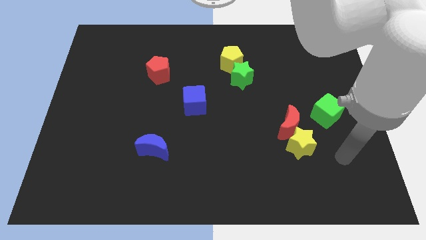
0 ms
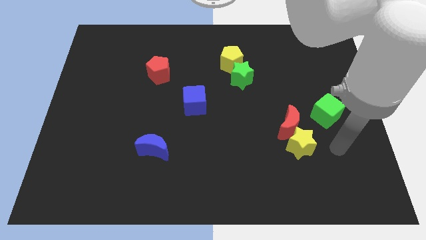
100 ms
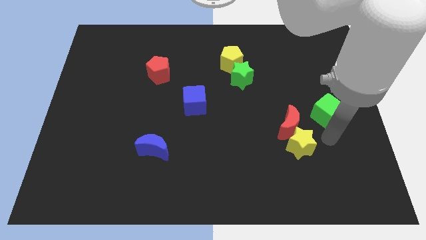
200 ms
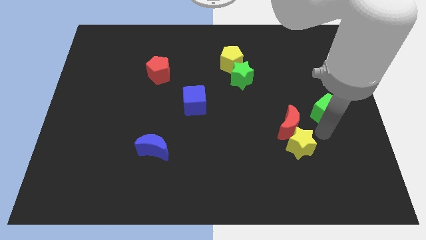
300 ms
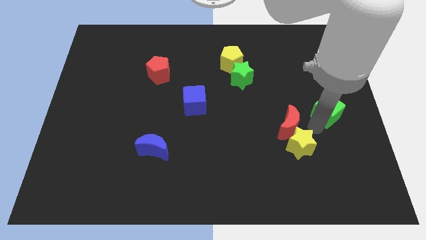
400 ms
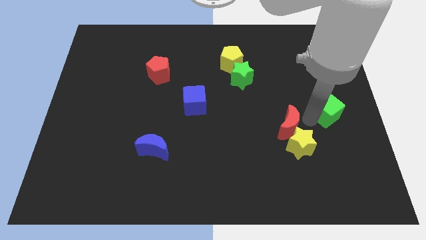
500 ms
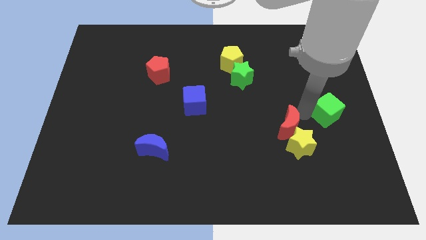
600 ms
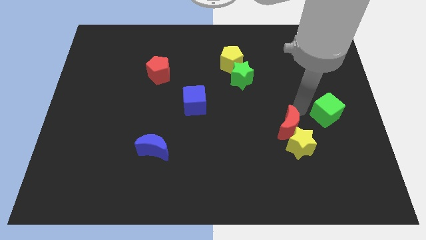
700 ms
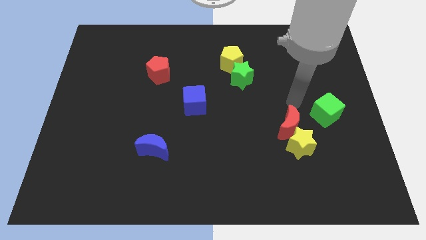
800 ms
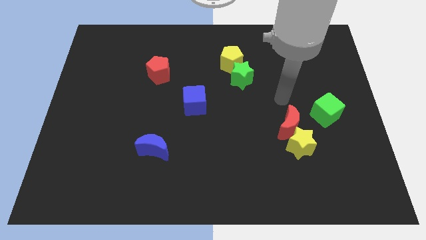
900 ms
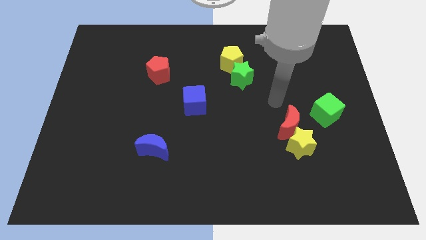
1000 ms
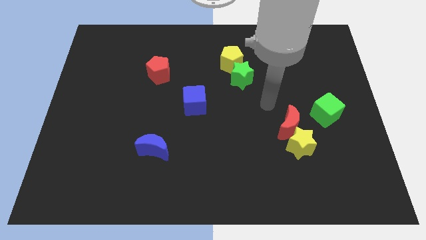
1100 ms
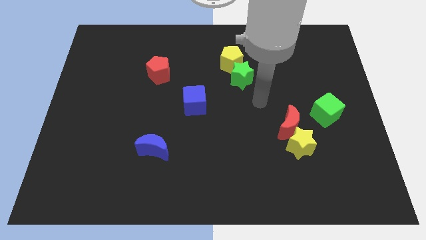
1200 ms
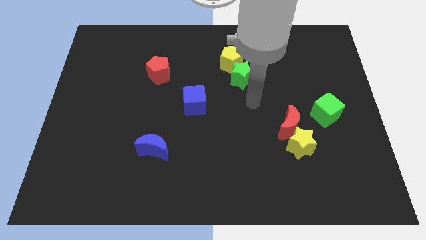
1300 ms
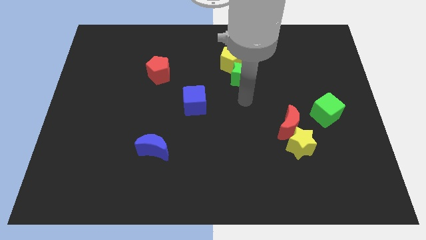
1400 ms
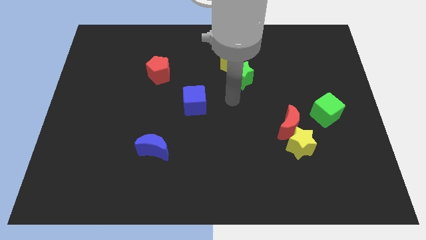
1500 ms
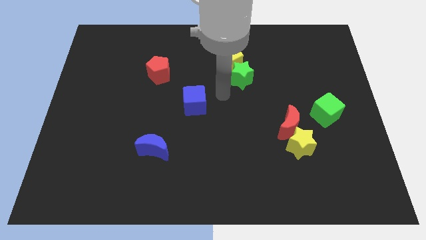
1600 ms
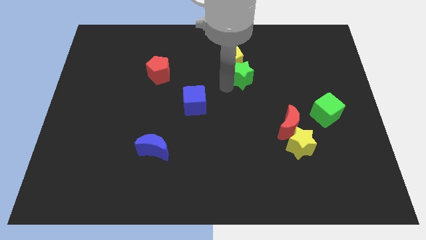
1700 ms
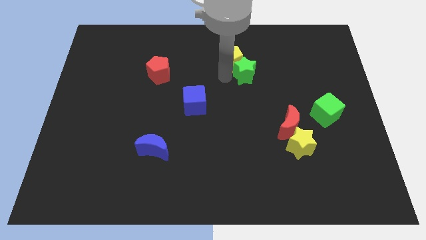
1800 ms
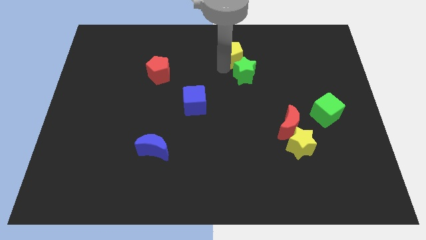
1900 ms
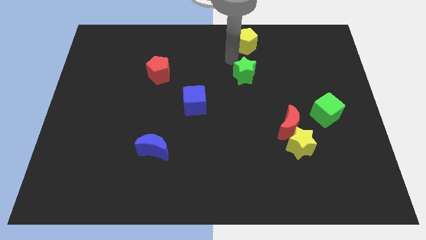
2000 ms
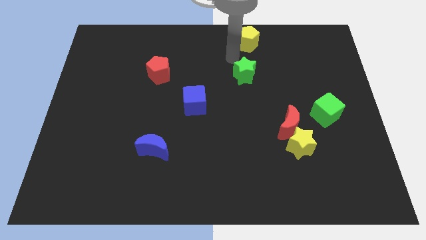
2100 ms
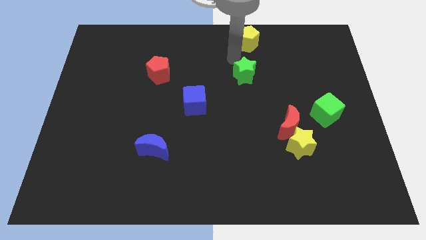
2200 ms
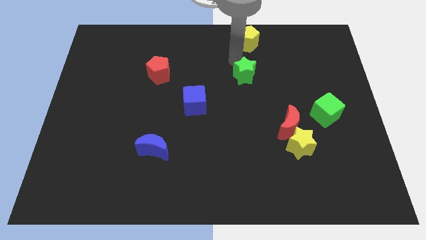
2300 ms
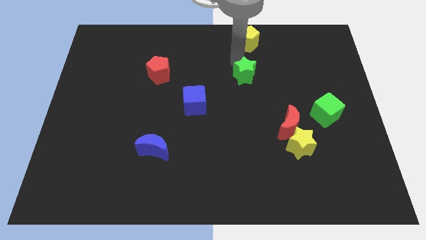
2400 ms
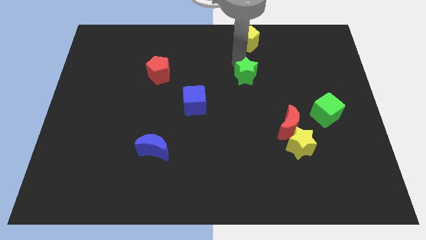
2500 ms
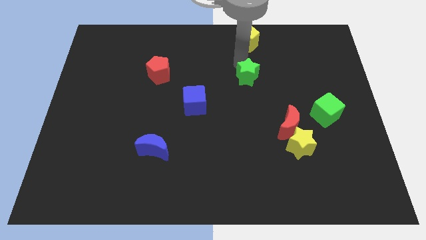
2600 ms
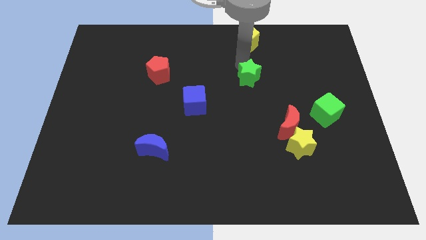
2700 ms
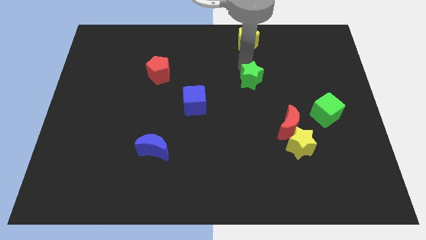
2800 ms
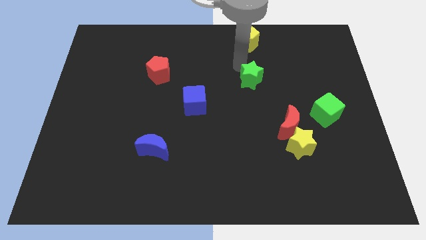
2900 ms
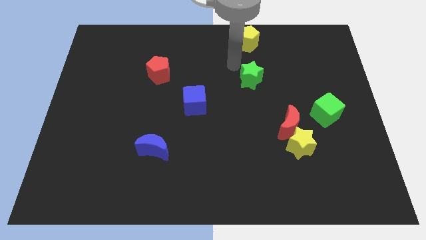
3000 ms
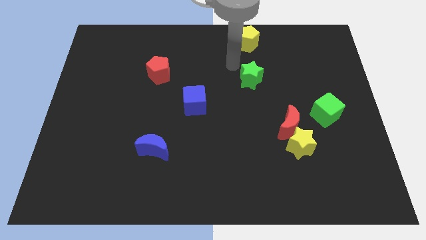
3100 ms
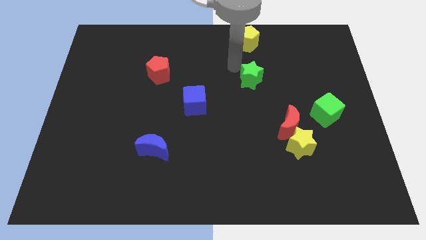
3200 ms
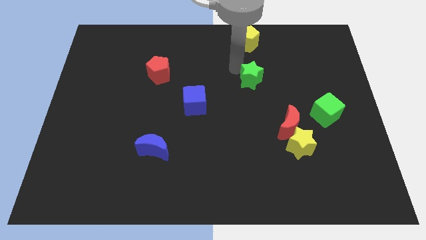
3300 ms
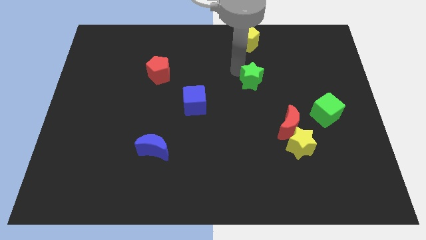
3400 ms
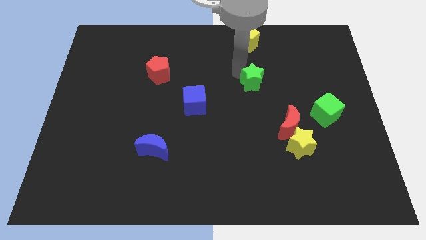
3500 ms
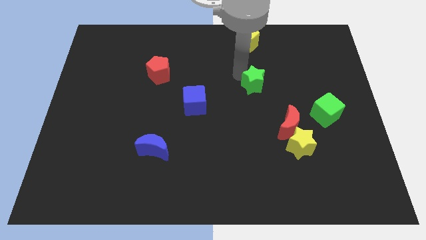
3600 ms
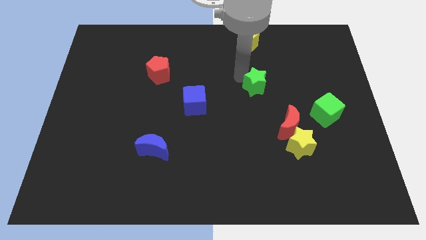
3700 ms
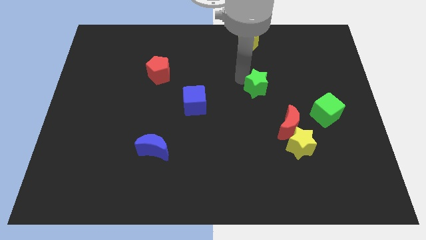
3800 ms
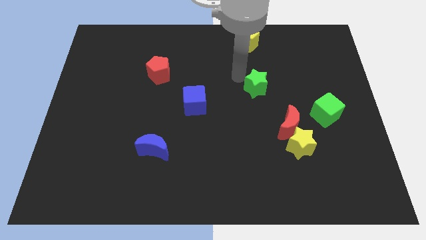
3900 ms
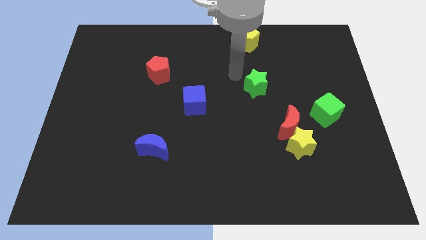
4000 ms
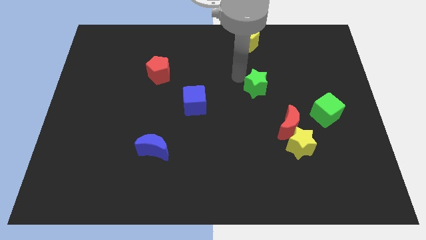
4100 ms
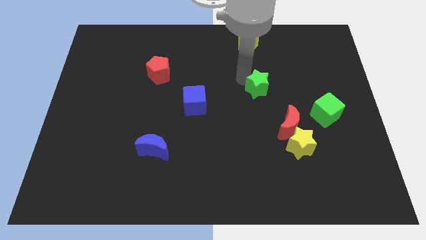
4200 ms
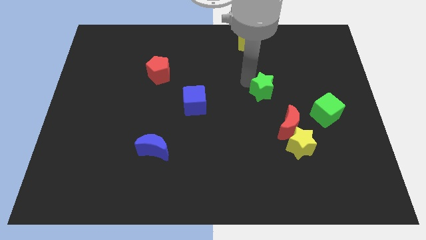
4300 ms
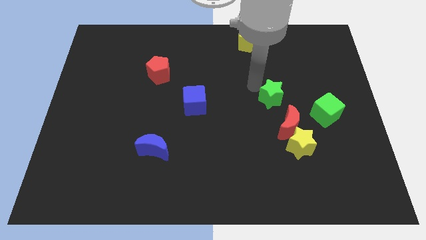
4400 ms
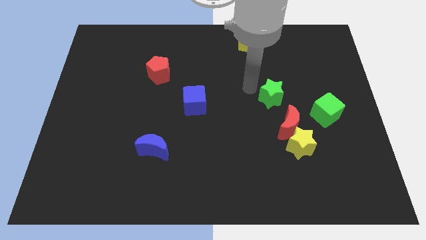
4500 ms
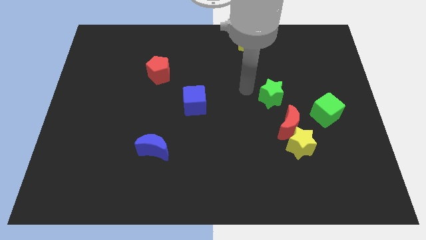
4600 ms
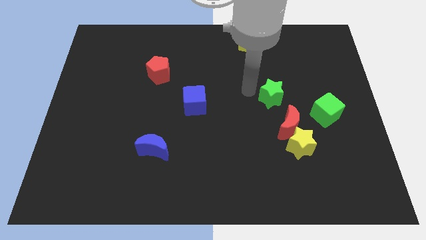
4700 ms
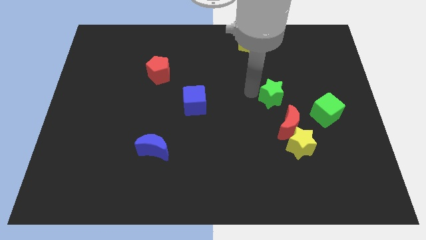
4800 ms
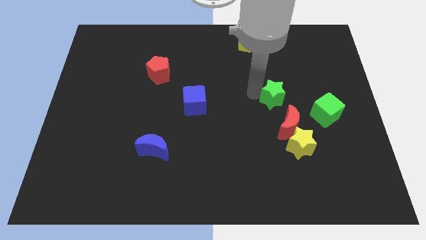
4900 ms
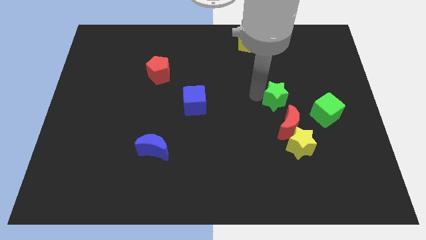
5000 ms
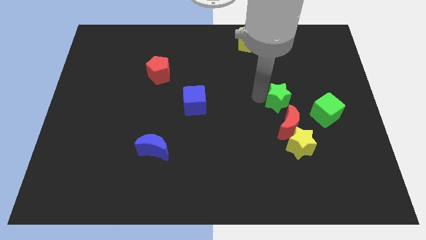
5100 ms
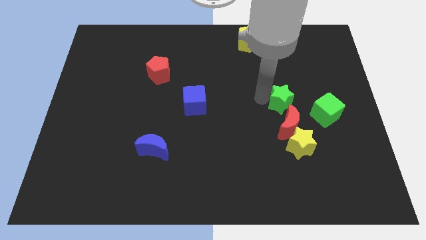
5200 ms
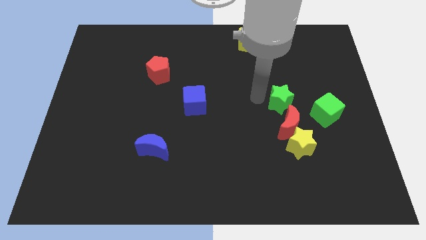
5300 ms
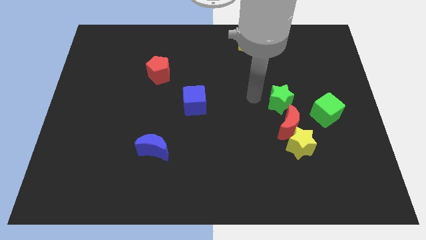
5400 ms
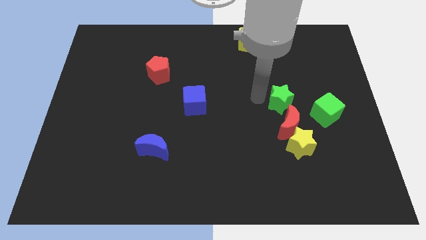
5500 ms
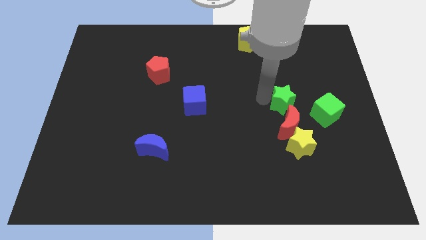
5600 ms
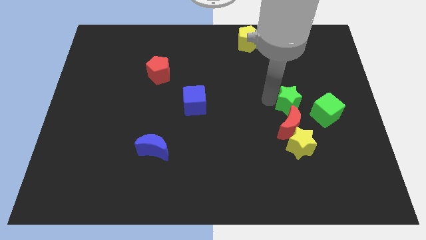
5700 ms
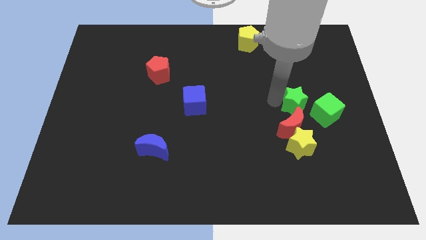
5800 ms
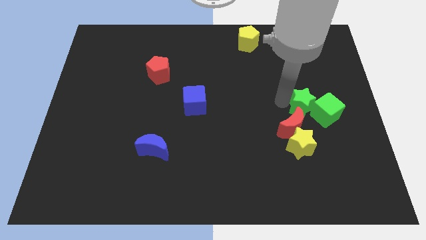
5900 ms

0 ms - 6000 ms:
push the green star close to the green cube

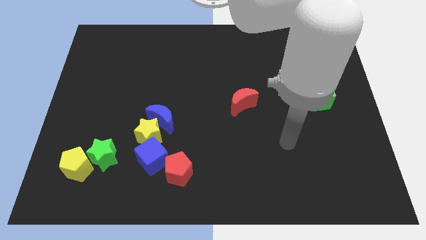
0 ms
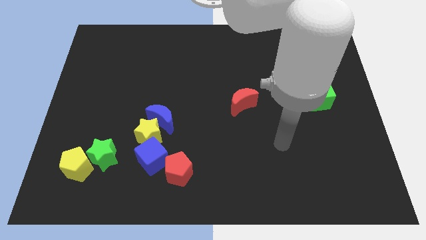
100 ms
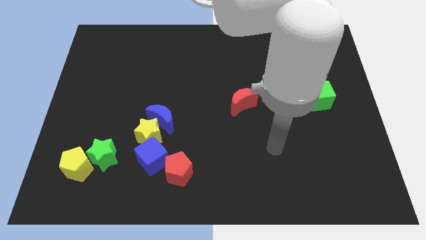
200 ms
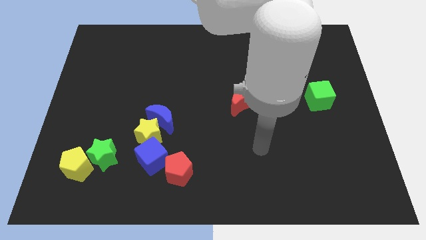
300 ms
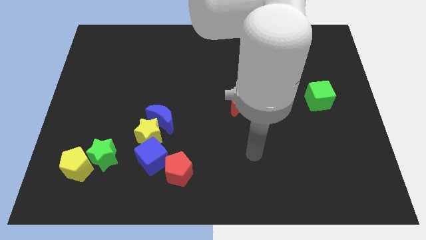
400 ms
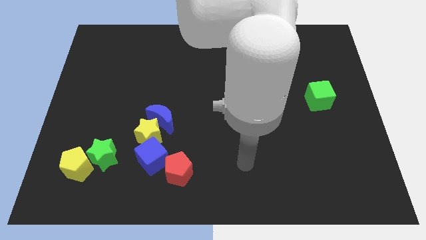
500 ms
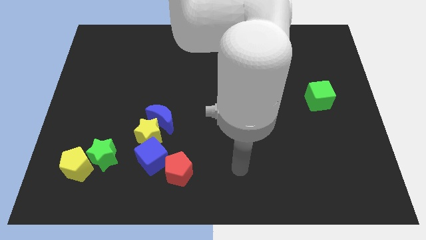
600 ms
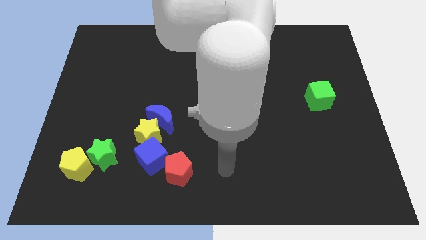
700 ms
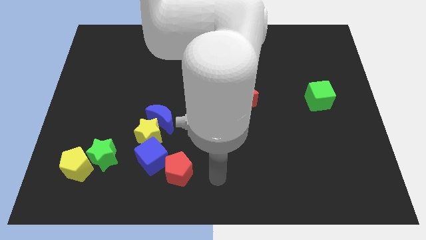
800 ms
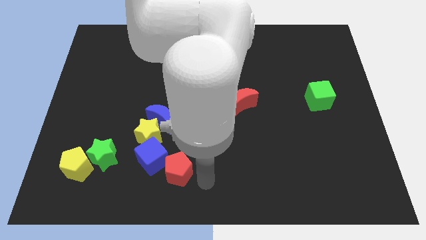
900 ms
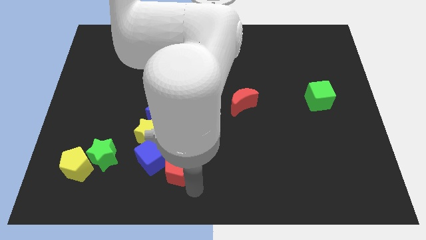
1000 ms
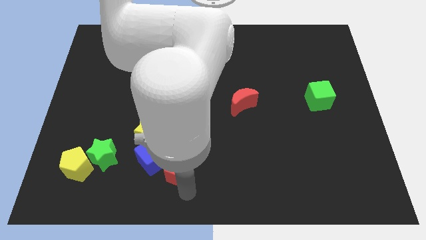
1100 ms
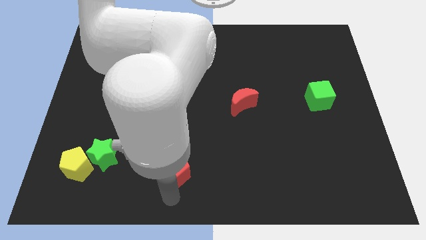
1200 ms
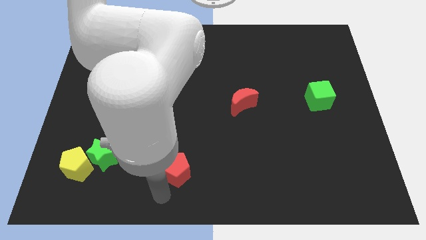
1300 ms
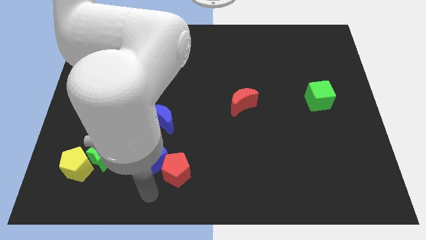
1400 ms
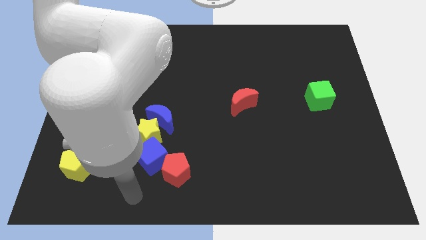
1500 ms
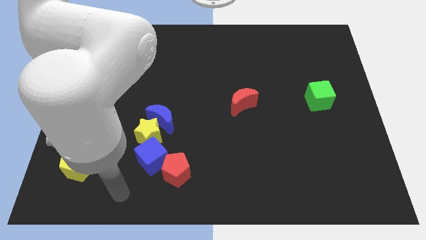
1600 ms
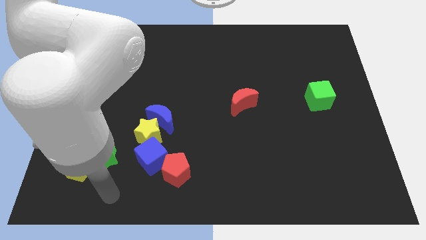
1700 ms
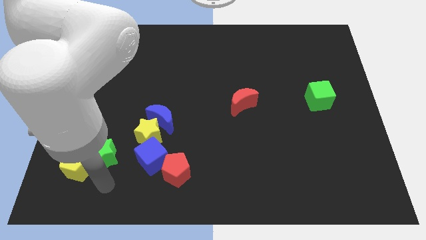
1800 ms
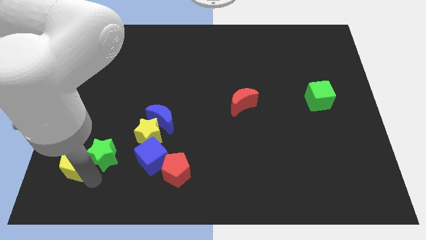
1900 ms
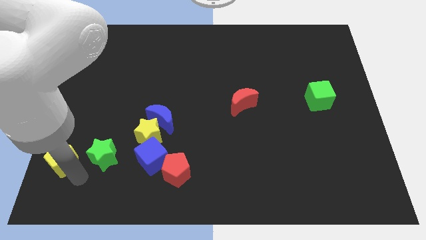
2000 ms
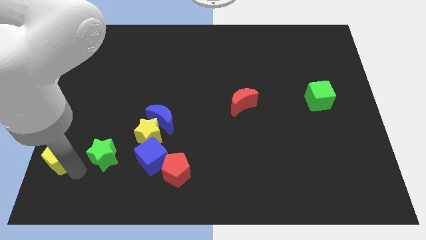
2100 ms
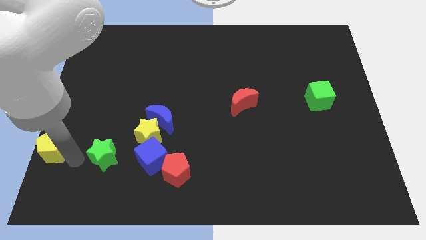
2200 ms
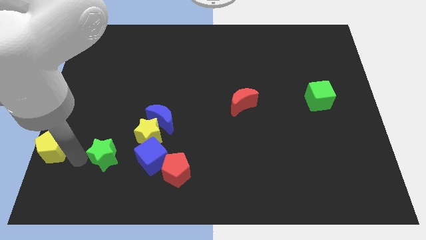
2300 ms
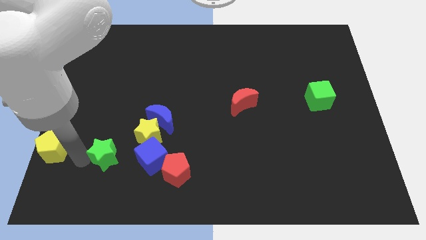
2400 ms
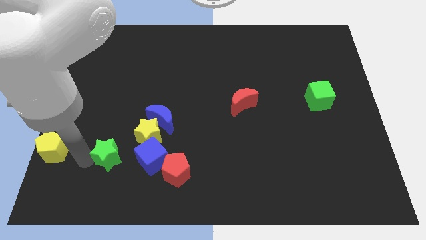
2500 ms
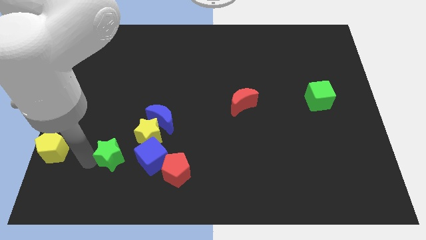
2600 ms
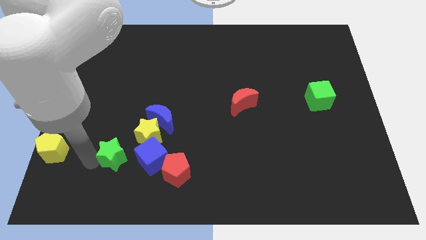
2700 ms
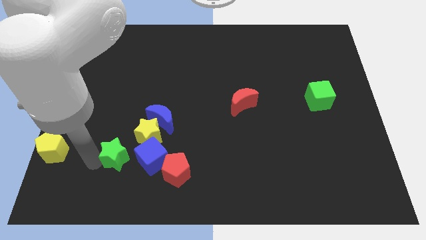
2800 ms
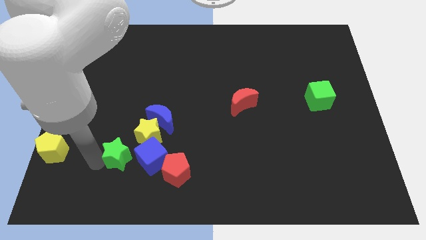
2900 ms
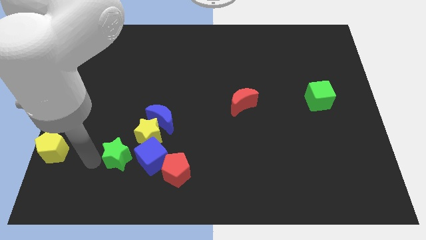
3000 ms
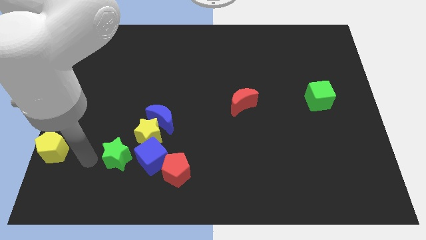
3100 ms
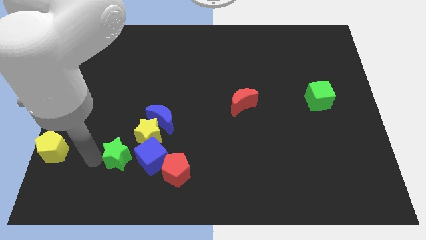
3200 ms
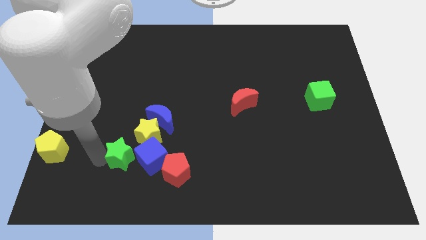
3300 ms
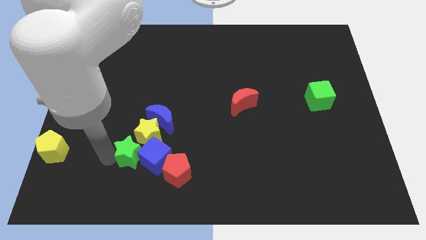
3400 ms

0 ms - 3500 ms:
push the green star to the blue cube
